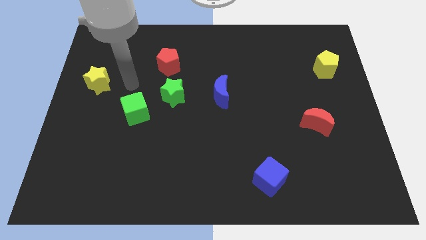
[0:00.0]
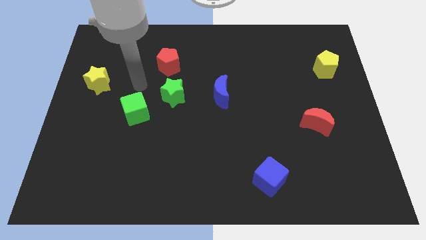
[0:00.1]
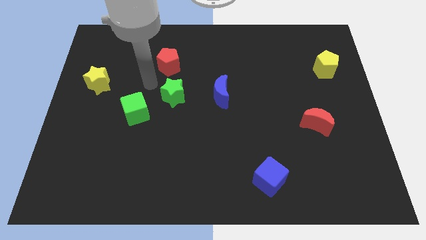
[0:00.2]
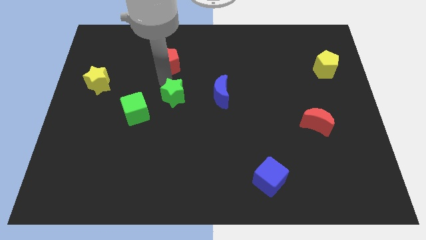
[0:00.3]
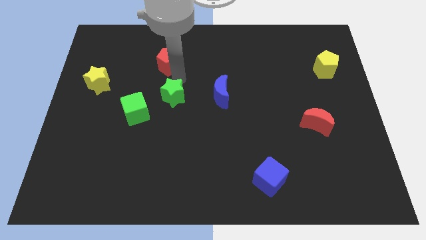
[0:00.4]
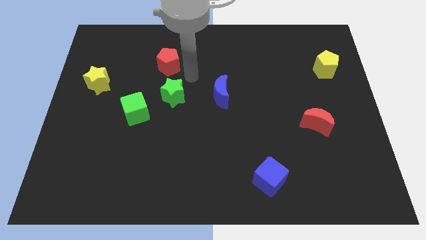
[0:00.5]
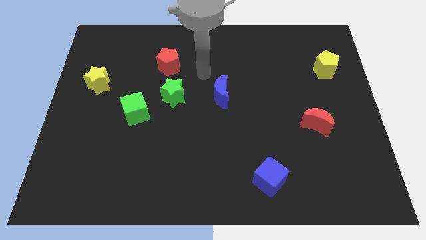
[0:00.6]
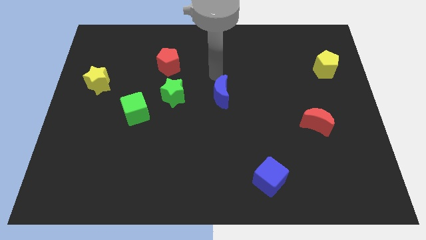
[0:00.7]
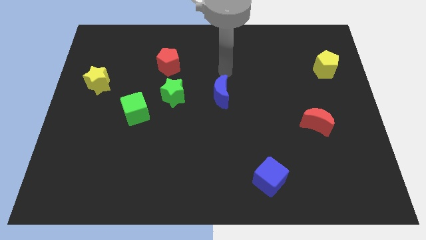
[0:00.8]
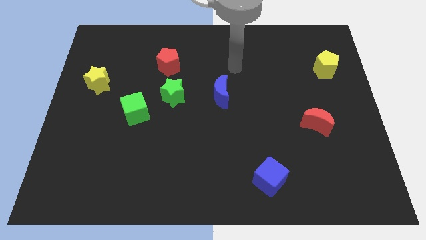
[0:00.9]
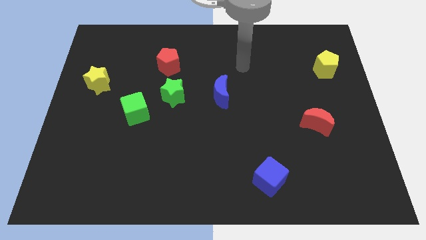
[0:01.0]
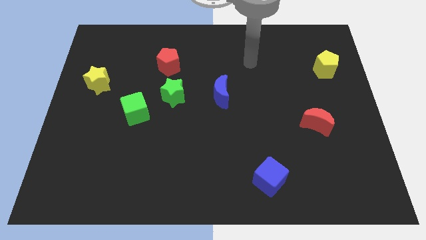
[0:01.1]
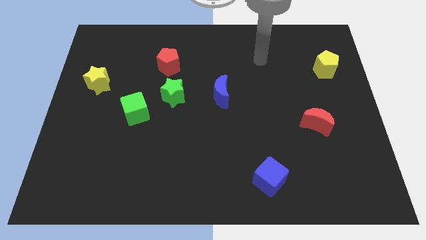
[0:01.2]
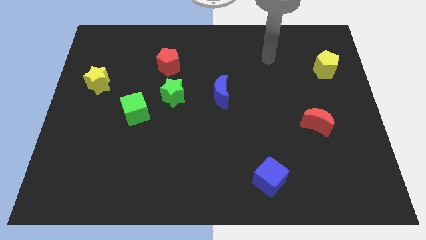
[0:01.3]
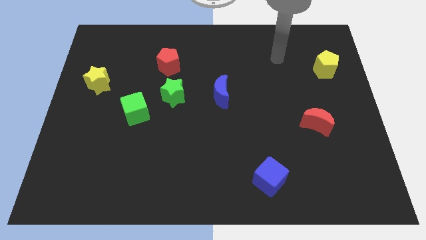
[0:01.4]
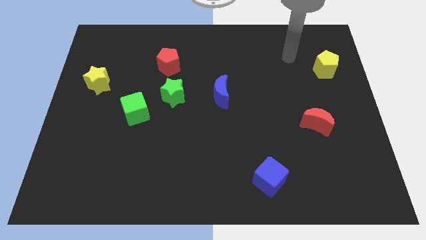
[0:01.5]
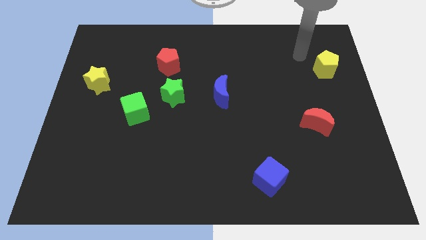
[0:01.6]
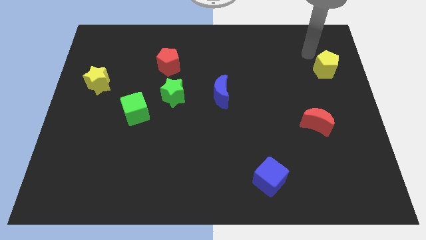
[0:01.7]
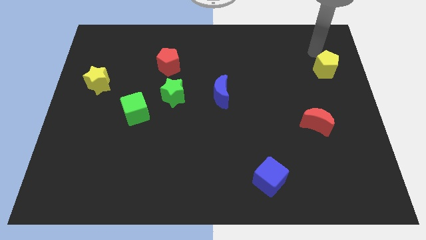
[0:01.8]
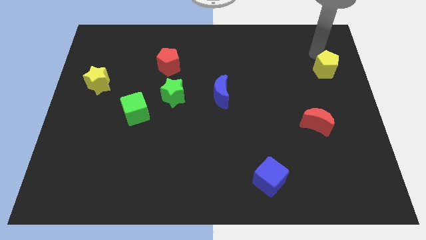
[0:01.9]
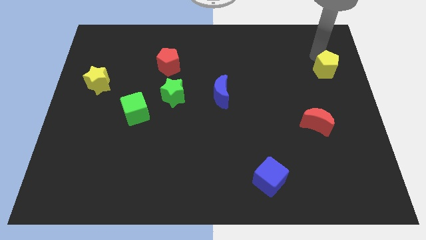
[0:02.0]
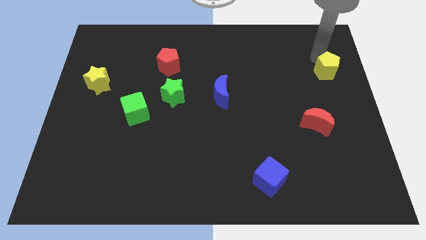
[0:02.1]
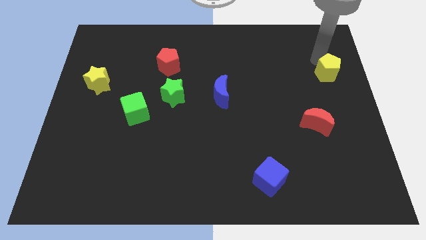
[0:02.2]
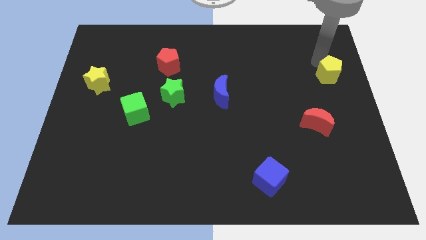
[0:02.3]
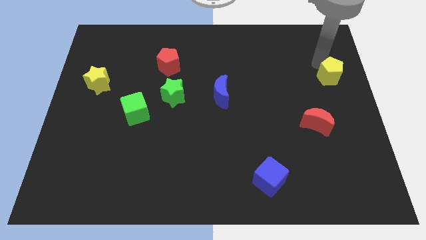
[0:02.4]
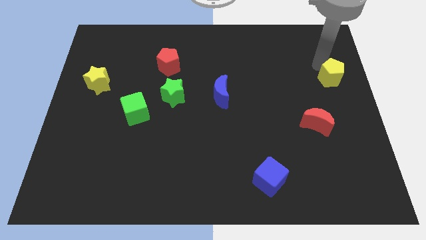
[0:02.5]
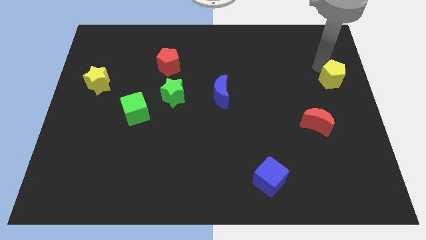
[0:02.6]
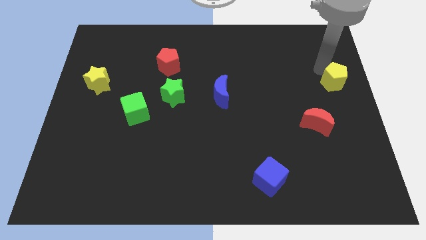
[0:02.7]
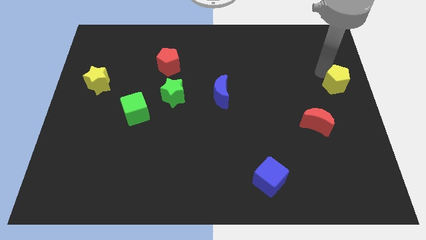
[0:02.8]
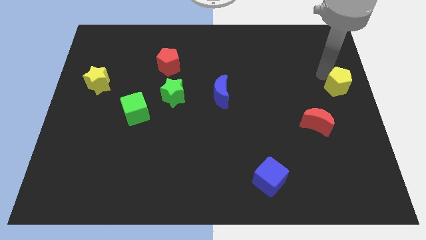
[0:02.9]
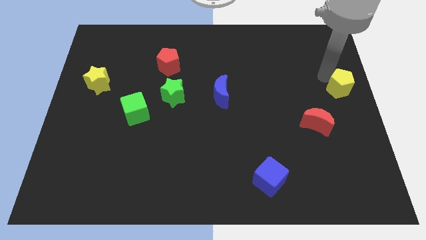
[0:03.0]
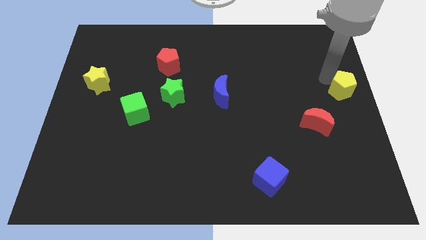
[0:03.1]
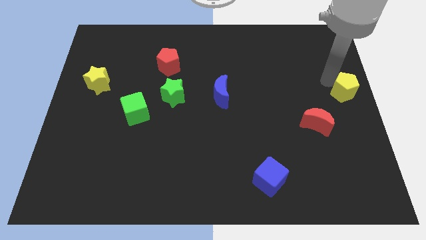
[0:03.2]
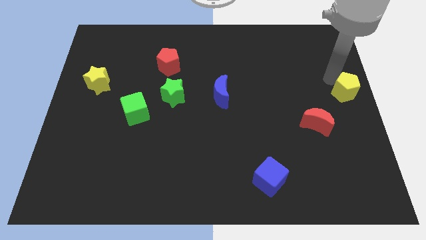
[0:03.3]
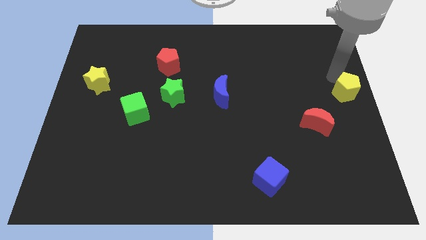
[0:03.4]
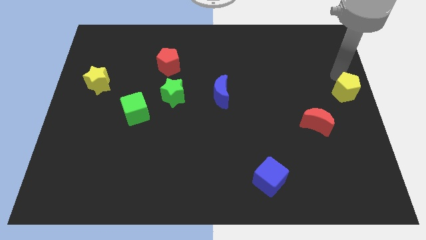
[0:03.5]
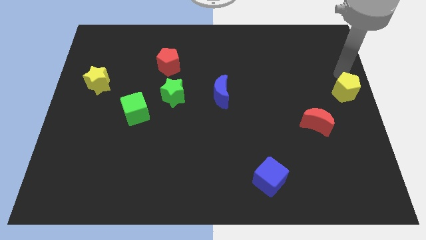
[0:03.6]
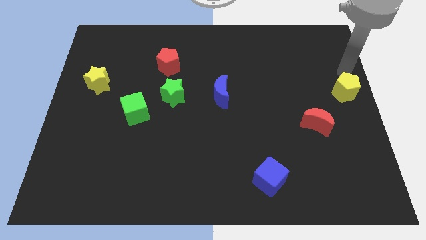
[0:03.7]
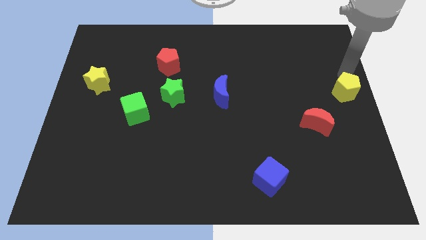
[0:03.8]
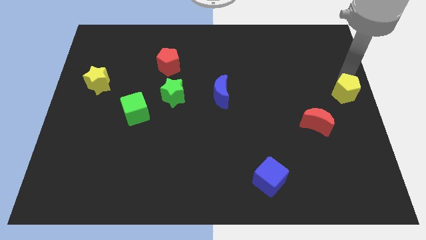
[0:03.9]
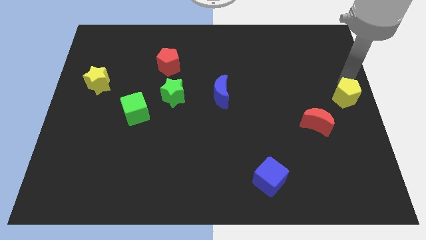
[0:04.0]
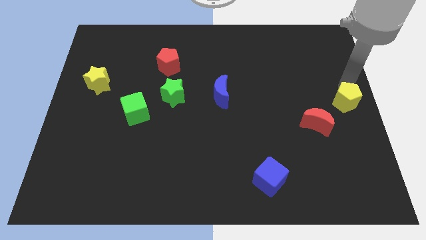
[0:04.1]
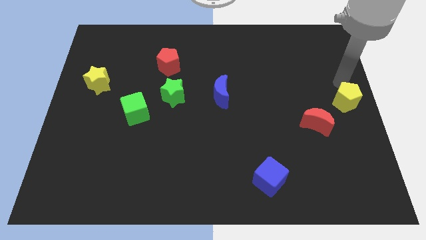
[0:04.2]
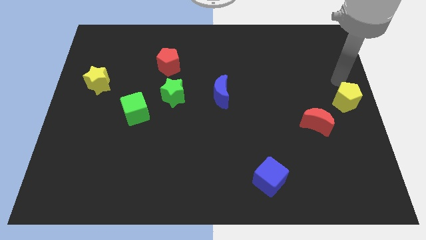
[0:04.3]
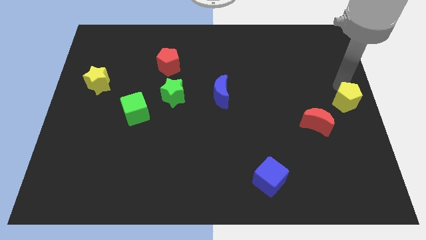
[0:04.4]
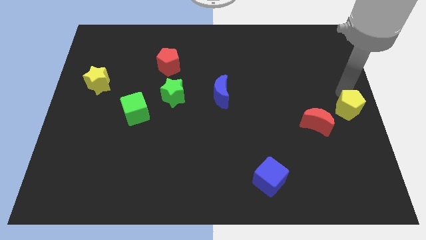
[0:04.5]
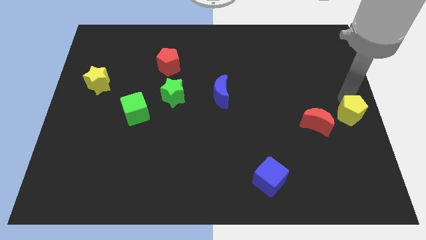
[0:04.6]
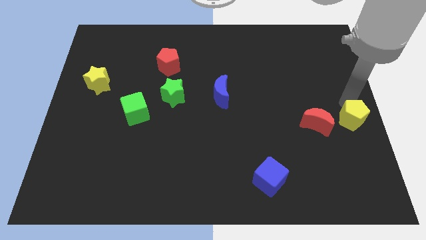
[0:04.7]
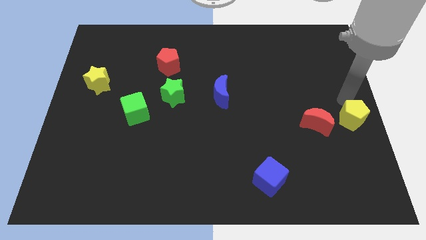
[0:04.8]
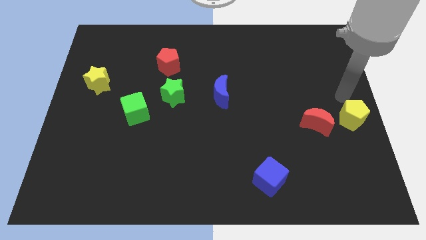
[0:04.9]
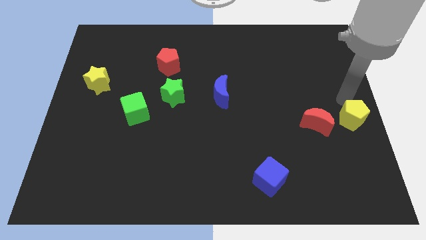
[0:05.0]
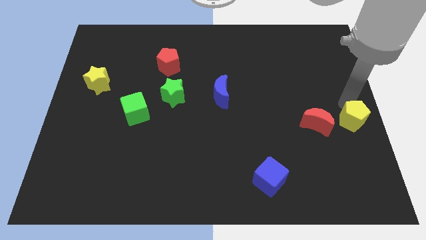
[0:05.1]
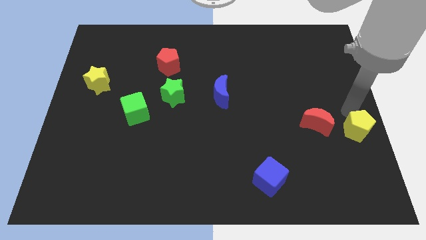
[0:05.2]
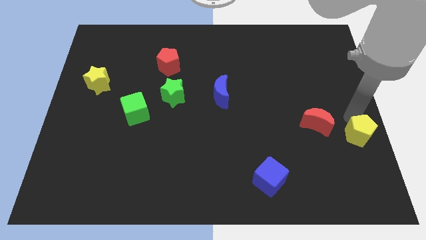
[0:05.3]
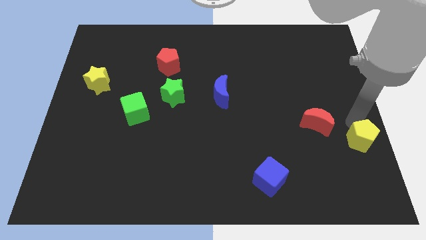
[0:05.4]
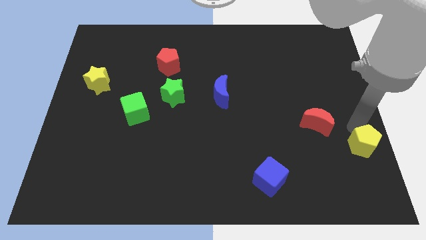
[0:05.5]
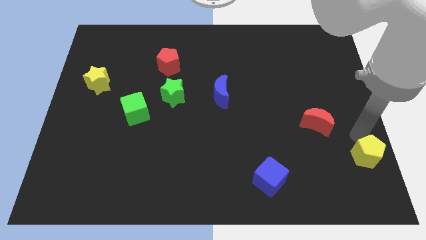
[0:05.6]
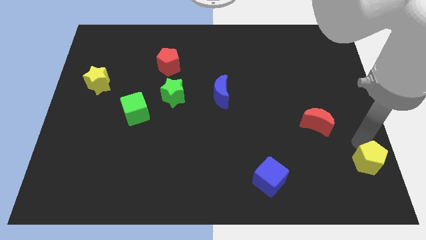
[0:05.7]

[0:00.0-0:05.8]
slide the yellow pentagon to the bottom right corner
